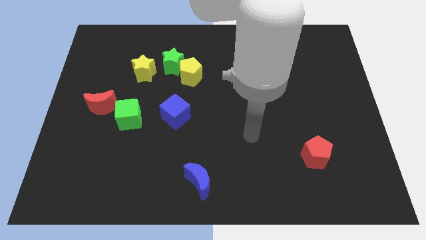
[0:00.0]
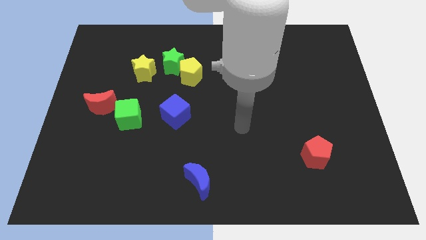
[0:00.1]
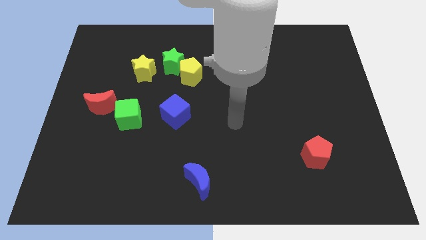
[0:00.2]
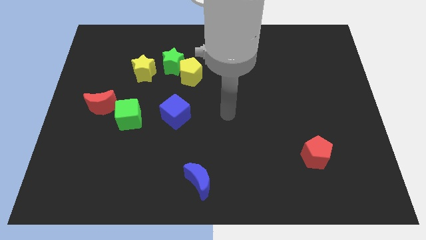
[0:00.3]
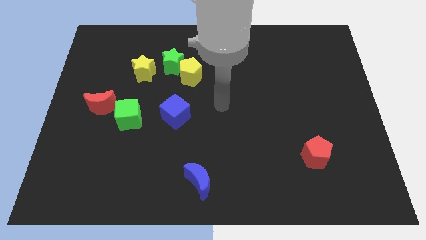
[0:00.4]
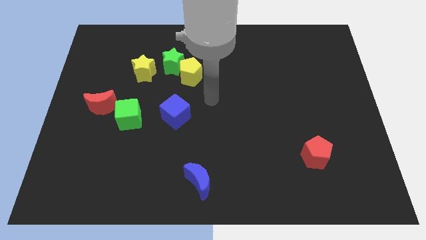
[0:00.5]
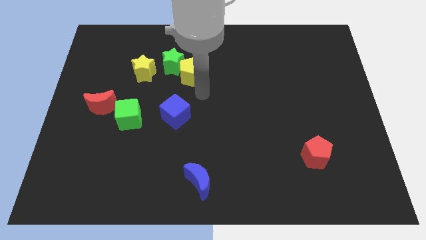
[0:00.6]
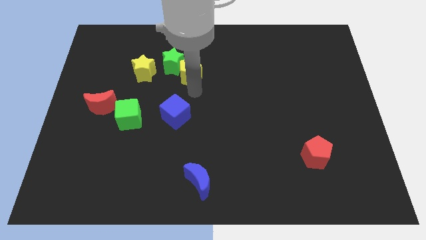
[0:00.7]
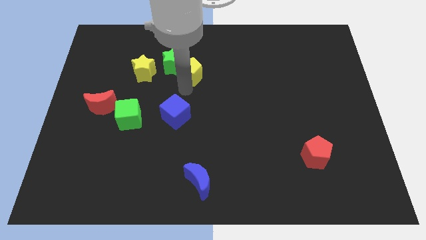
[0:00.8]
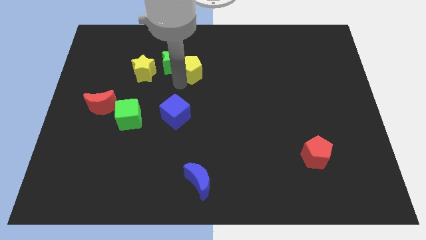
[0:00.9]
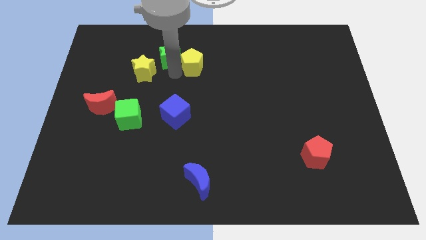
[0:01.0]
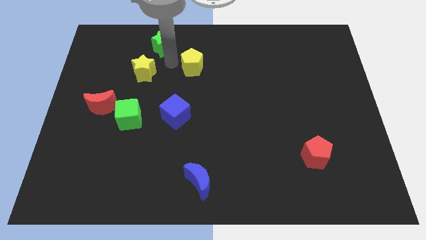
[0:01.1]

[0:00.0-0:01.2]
separate the yellow pentagon from the green star

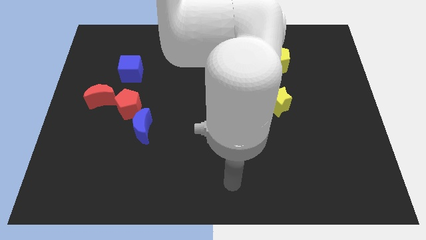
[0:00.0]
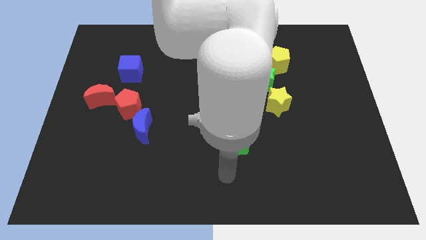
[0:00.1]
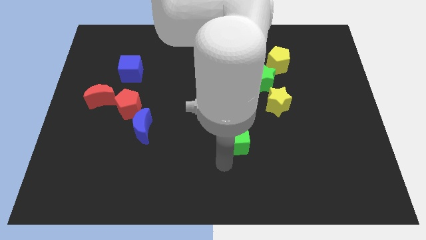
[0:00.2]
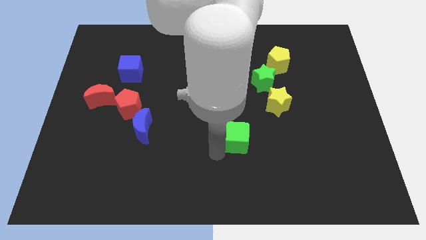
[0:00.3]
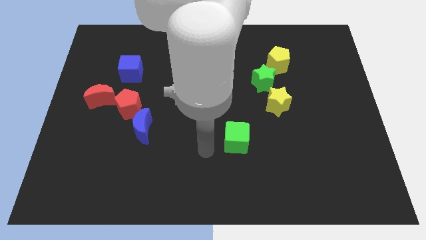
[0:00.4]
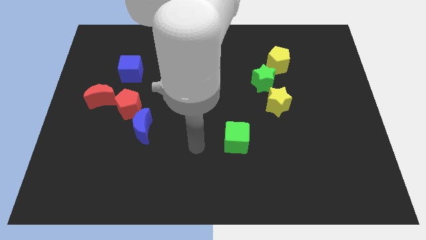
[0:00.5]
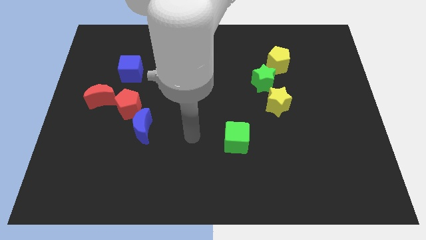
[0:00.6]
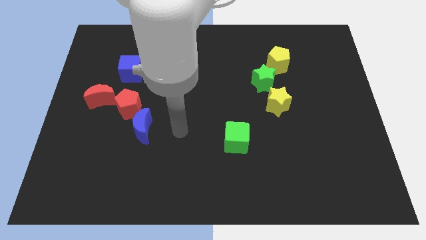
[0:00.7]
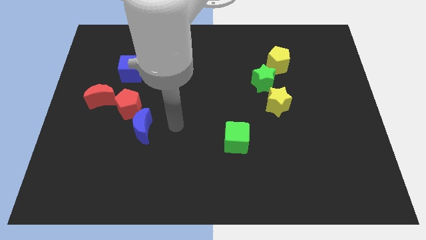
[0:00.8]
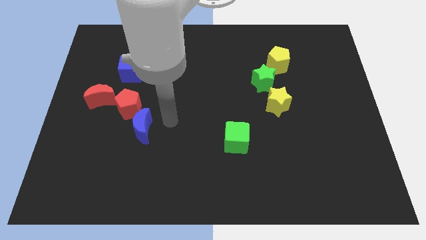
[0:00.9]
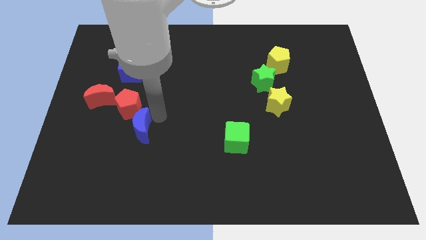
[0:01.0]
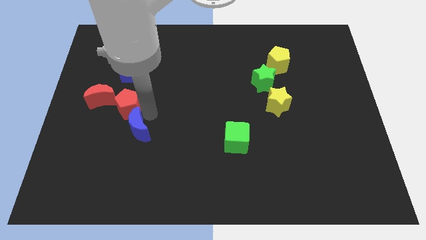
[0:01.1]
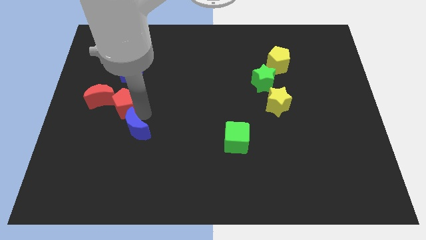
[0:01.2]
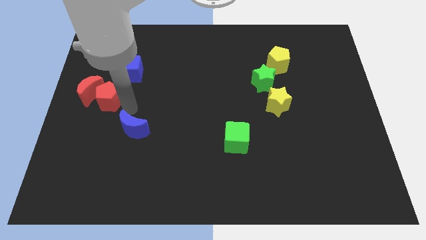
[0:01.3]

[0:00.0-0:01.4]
move the blue moon away from the red pentagon

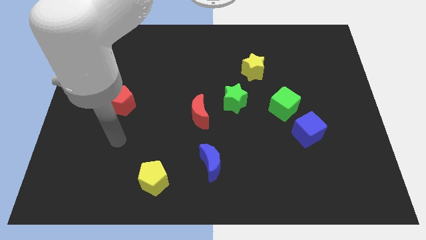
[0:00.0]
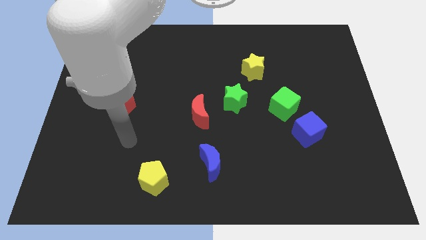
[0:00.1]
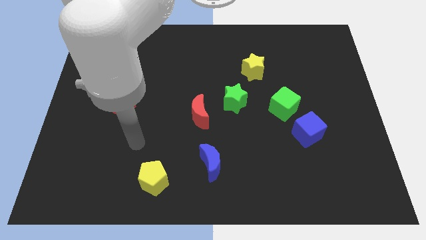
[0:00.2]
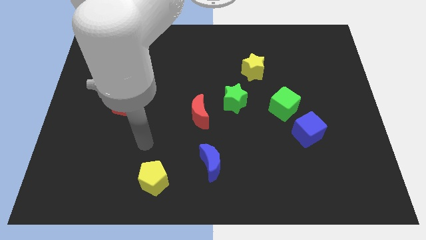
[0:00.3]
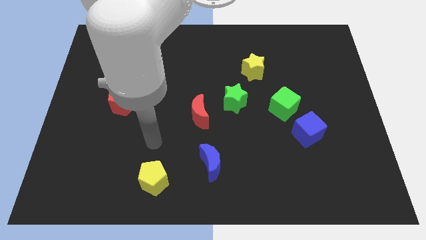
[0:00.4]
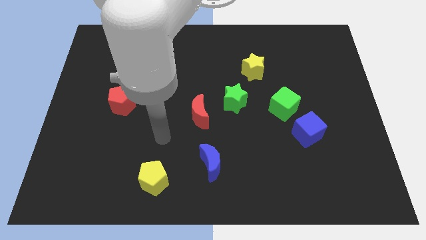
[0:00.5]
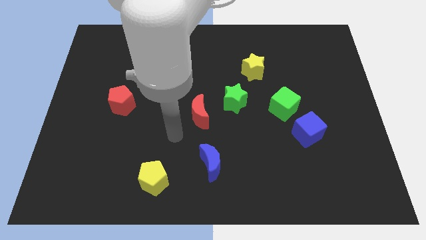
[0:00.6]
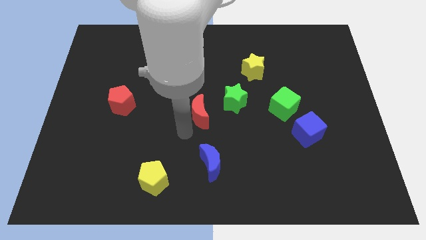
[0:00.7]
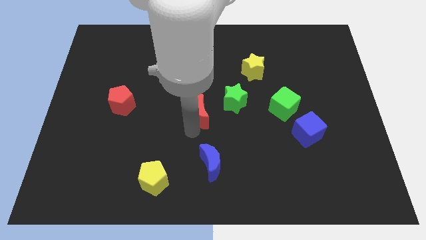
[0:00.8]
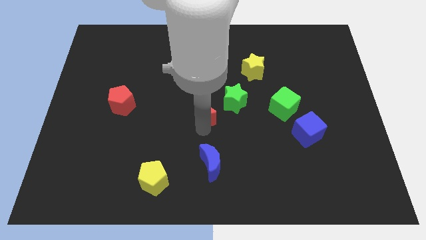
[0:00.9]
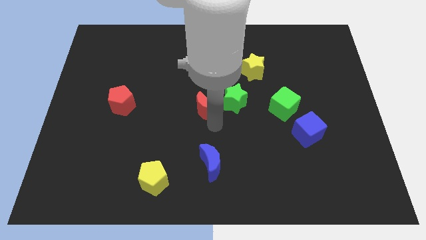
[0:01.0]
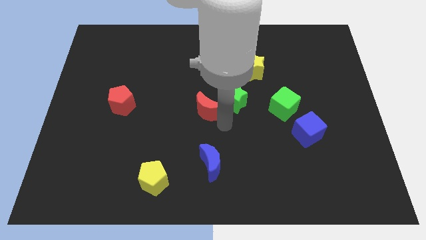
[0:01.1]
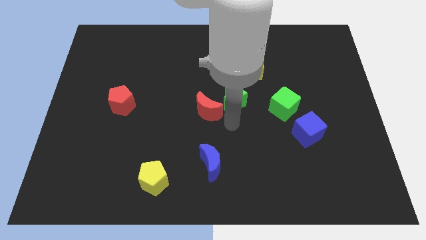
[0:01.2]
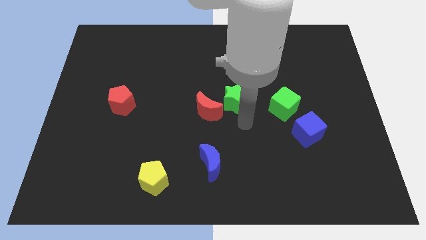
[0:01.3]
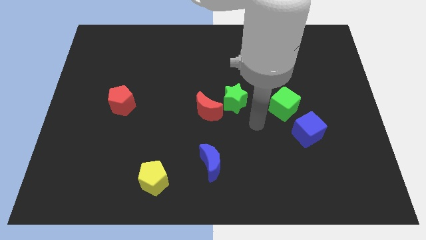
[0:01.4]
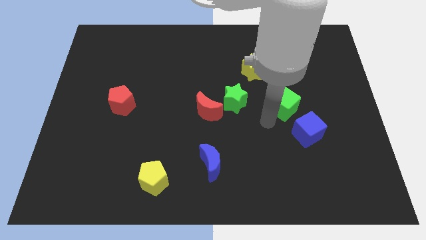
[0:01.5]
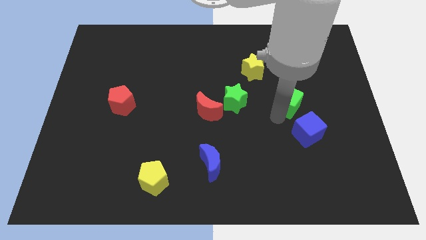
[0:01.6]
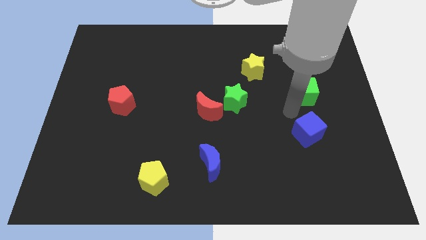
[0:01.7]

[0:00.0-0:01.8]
pull the blue cube apart from the green cube

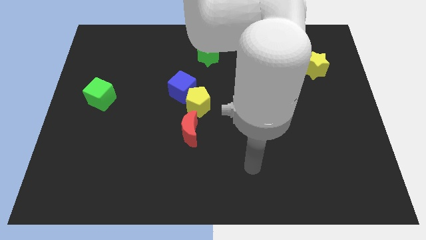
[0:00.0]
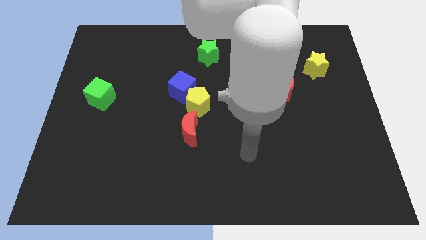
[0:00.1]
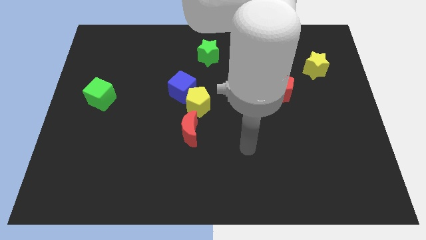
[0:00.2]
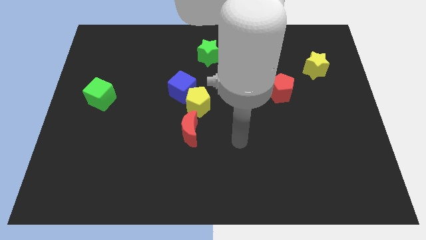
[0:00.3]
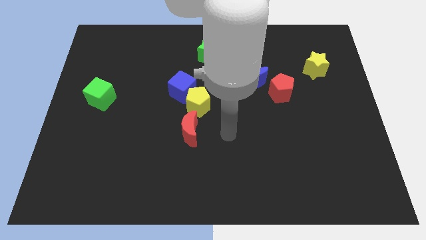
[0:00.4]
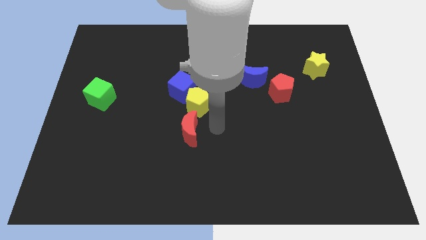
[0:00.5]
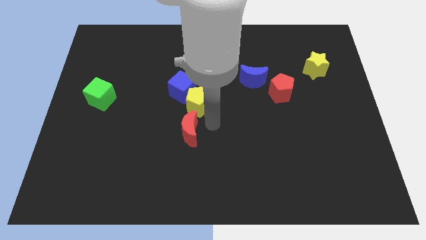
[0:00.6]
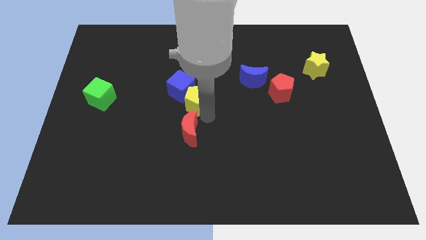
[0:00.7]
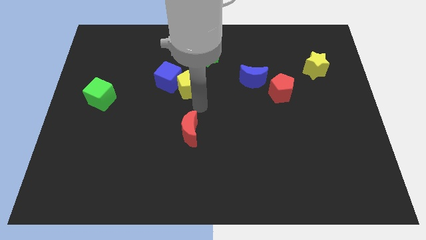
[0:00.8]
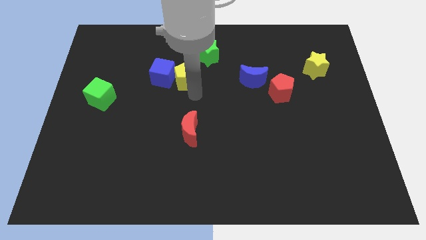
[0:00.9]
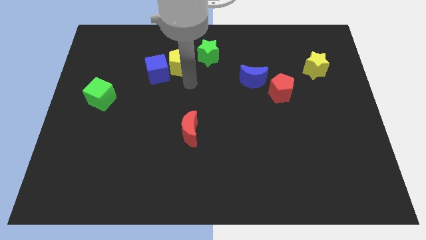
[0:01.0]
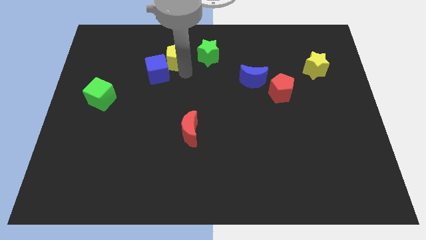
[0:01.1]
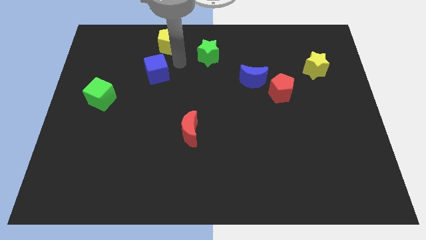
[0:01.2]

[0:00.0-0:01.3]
pull the blue cube apart from the yellow pentagon

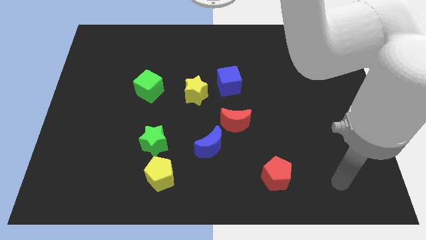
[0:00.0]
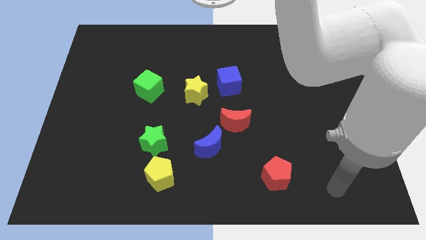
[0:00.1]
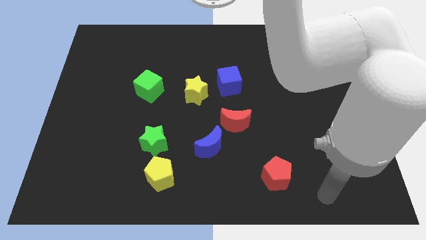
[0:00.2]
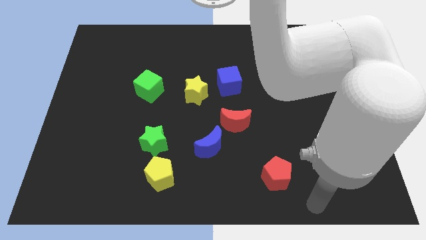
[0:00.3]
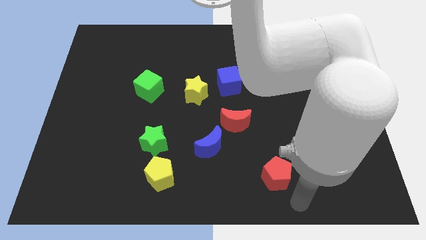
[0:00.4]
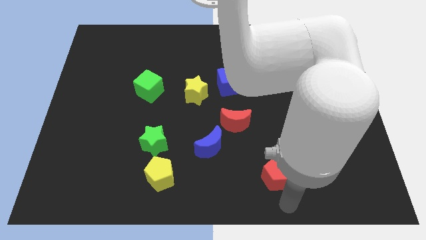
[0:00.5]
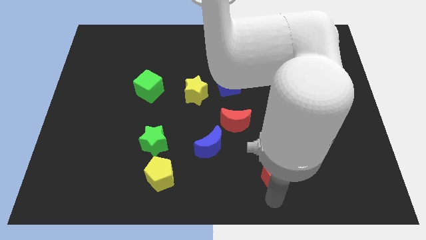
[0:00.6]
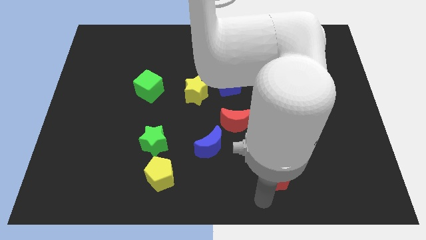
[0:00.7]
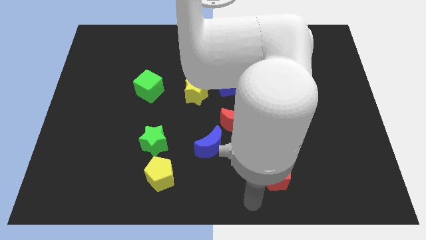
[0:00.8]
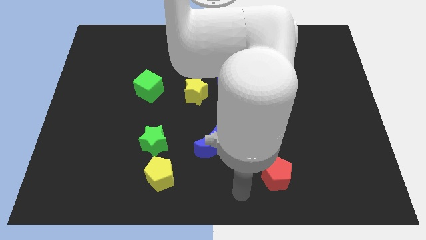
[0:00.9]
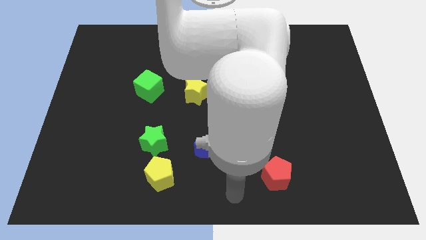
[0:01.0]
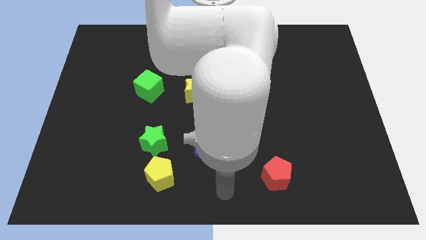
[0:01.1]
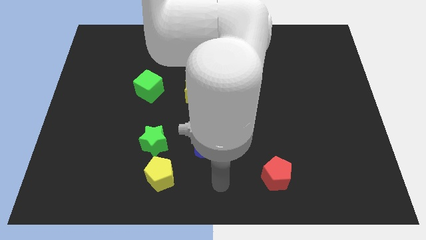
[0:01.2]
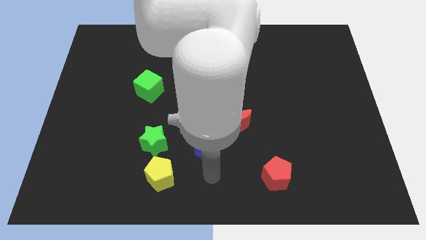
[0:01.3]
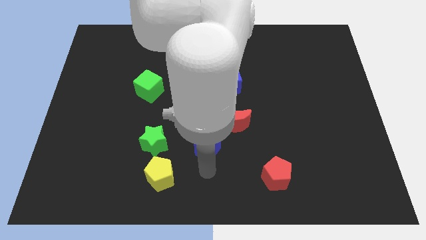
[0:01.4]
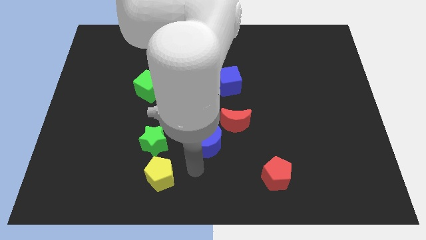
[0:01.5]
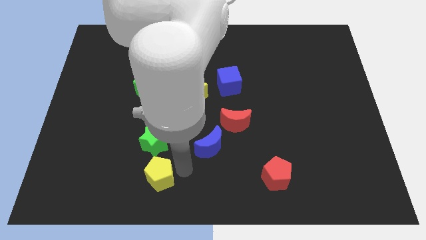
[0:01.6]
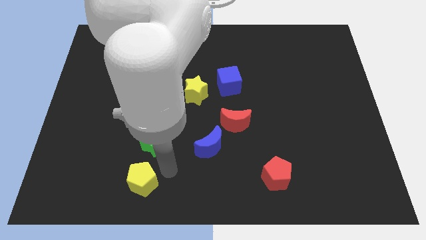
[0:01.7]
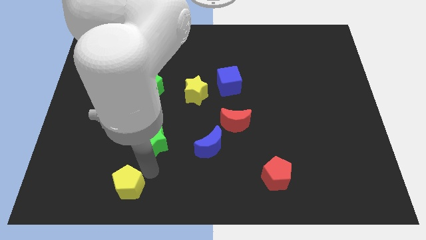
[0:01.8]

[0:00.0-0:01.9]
separate the green star from the yellow pentagon

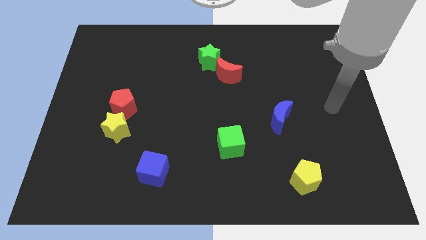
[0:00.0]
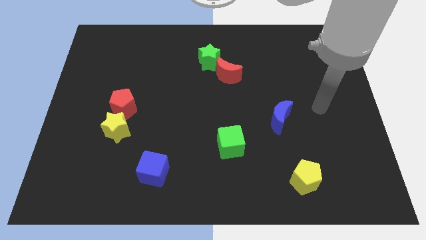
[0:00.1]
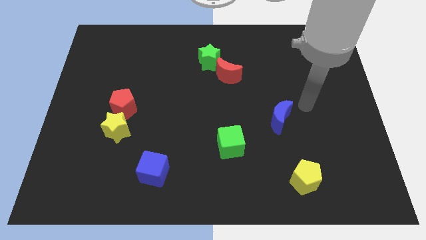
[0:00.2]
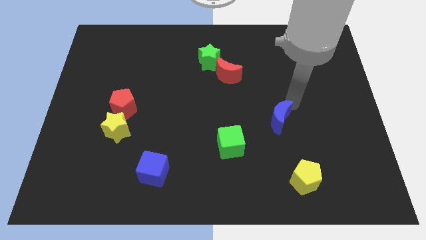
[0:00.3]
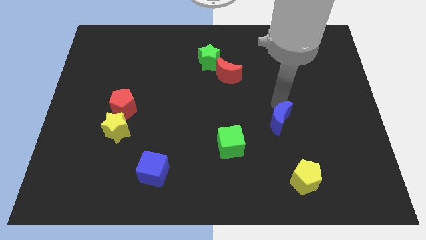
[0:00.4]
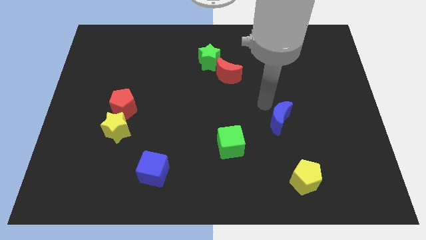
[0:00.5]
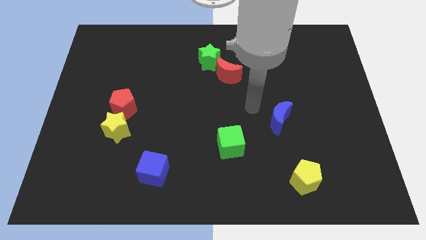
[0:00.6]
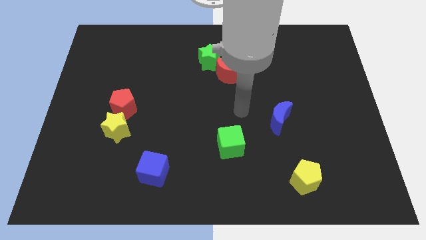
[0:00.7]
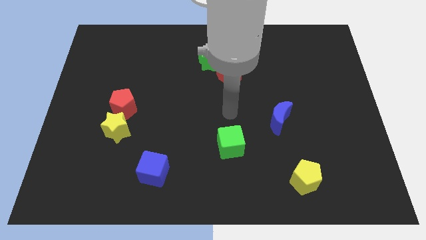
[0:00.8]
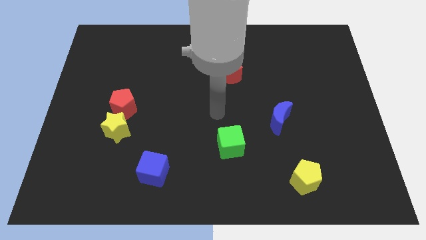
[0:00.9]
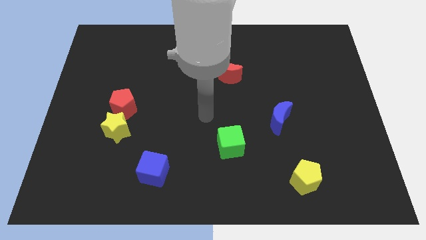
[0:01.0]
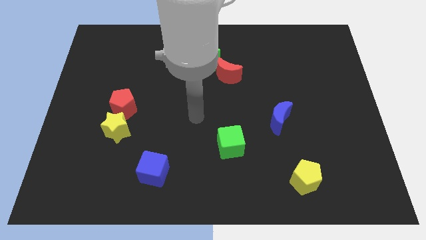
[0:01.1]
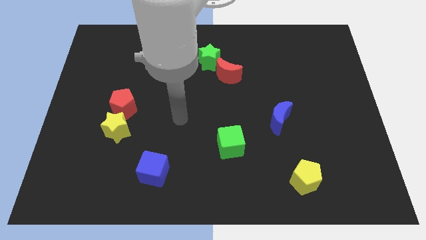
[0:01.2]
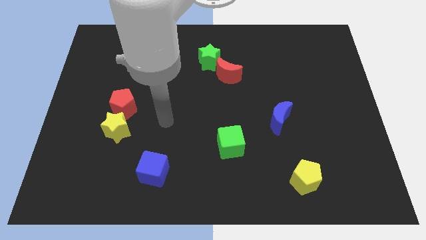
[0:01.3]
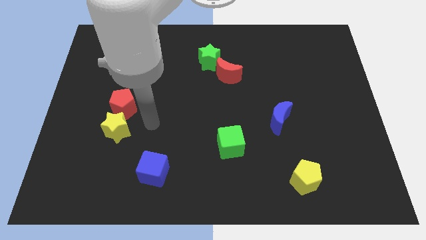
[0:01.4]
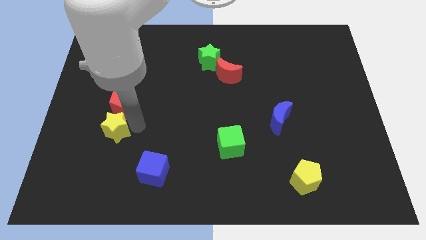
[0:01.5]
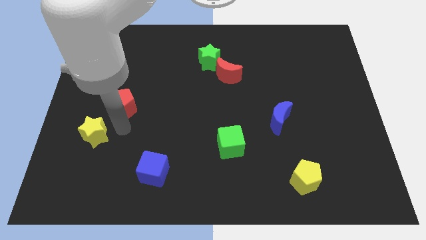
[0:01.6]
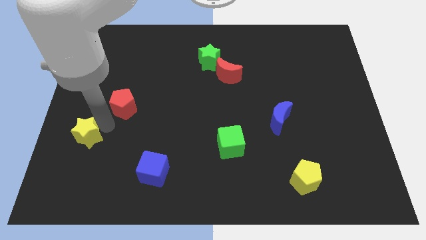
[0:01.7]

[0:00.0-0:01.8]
move the red pentagon away from the yellow star
